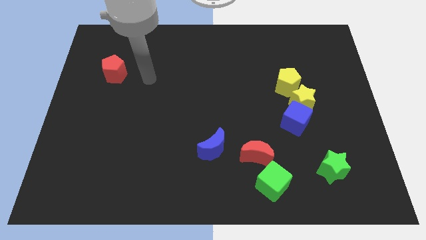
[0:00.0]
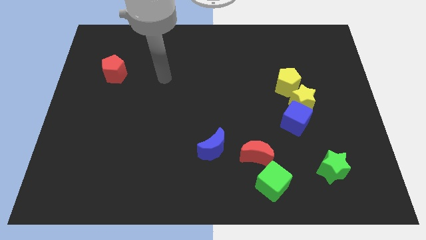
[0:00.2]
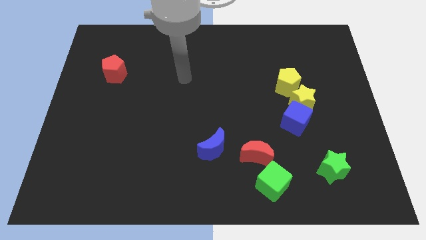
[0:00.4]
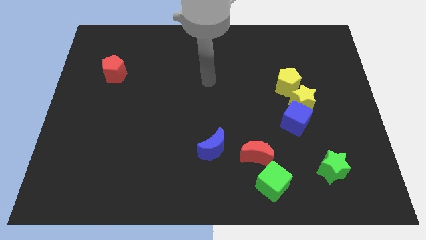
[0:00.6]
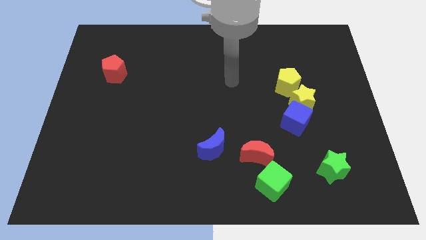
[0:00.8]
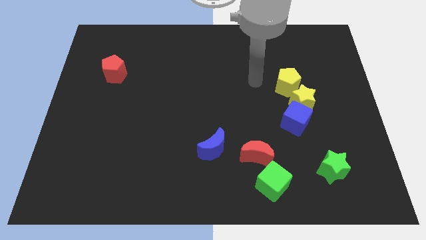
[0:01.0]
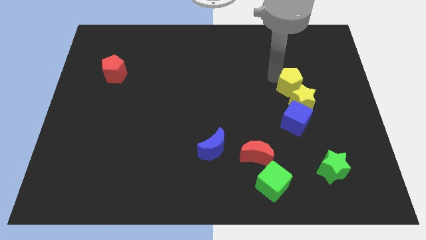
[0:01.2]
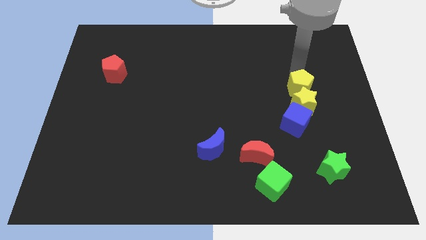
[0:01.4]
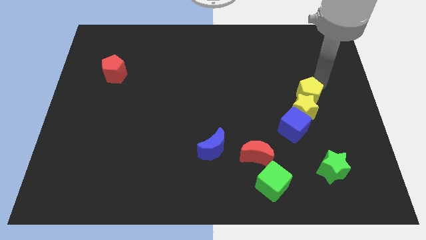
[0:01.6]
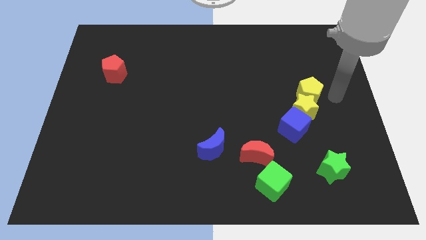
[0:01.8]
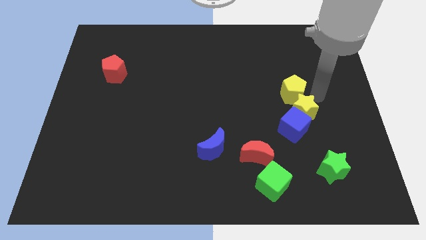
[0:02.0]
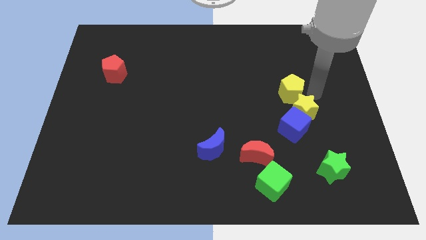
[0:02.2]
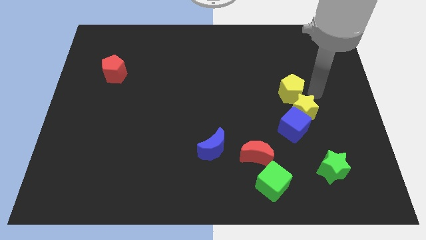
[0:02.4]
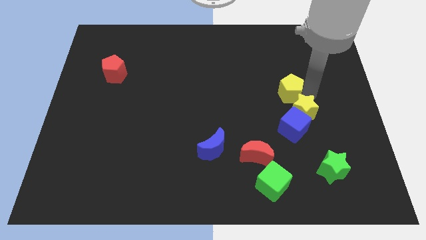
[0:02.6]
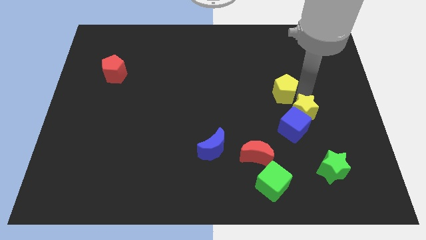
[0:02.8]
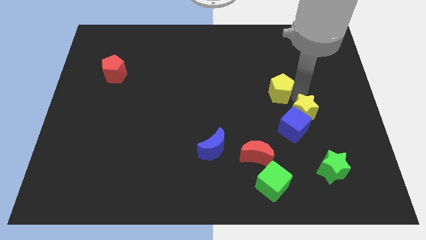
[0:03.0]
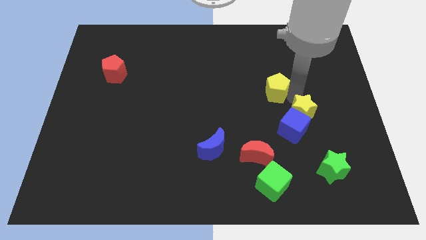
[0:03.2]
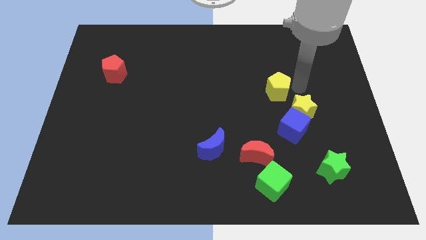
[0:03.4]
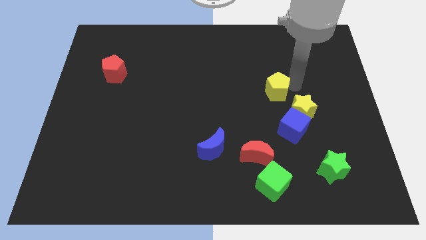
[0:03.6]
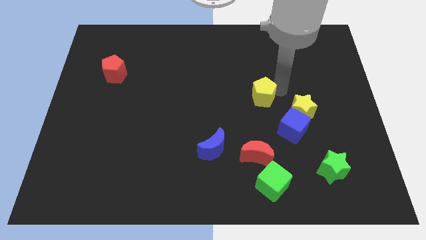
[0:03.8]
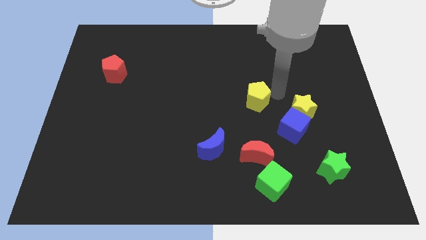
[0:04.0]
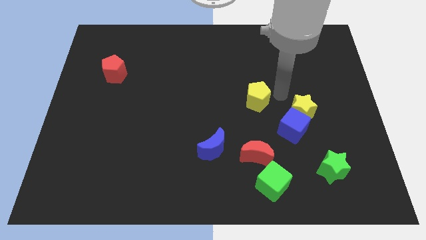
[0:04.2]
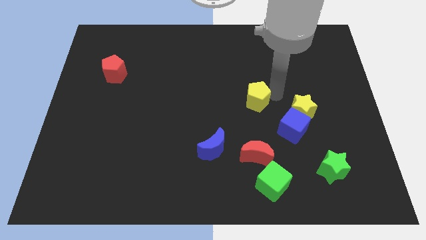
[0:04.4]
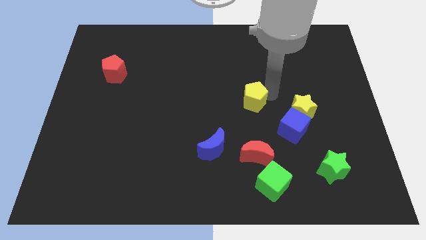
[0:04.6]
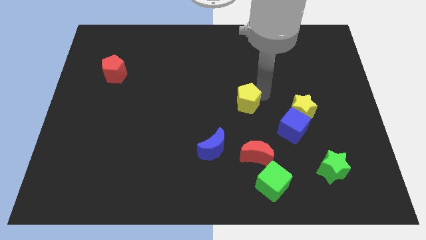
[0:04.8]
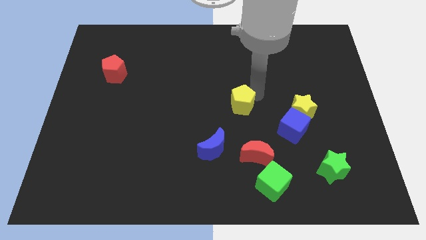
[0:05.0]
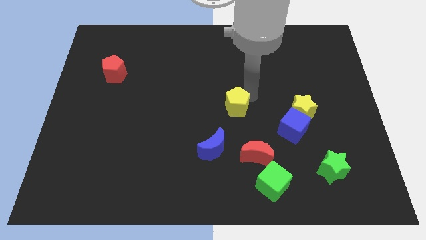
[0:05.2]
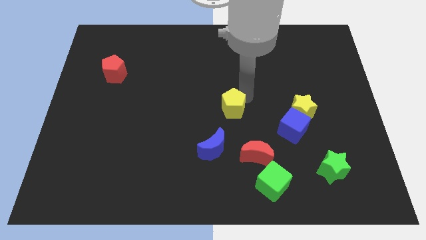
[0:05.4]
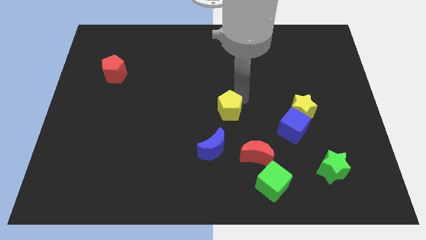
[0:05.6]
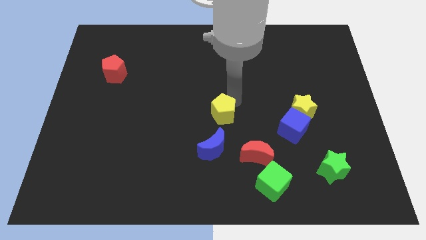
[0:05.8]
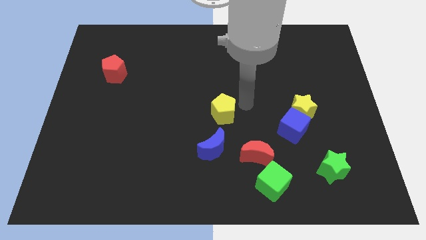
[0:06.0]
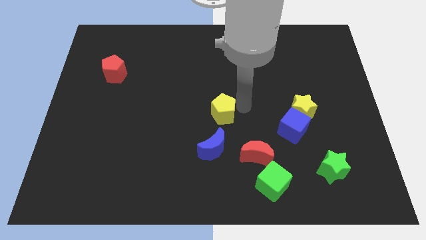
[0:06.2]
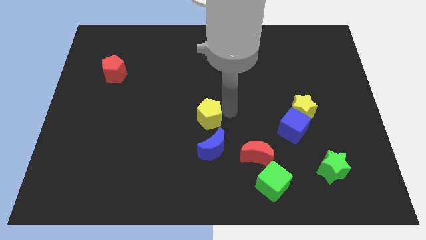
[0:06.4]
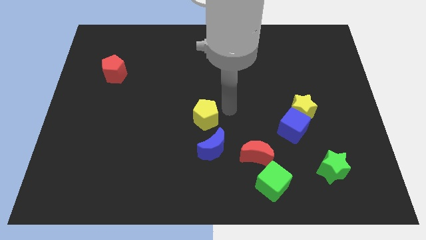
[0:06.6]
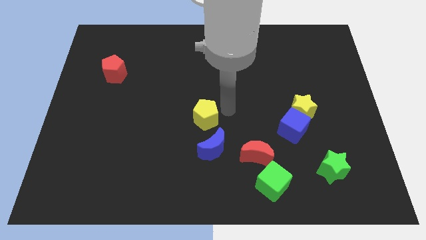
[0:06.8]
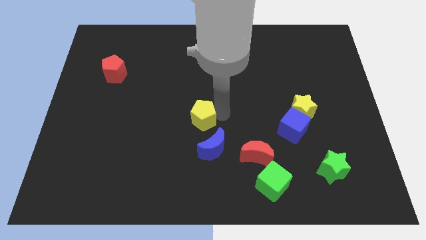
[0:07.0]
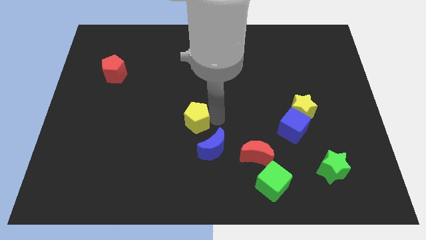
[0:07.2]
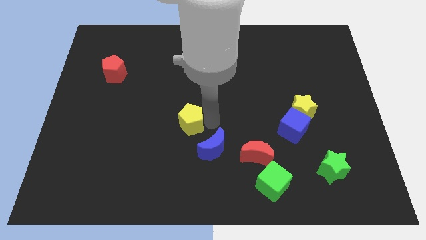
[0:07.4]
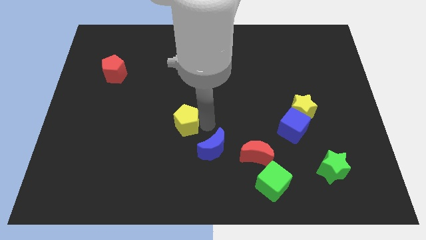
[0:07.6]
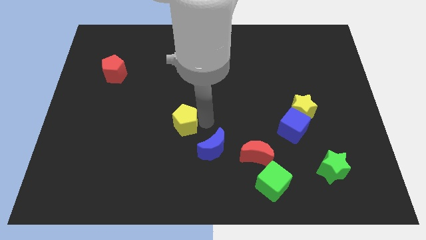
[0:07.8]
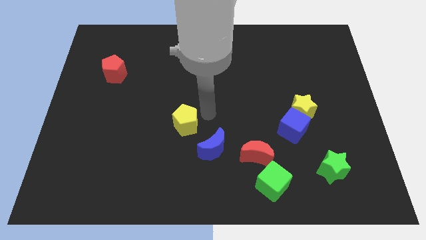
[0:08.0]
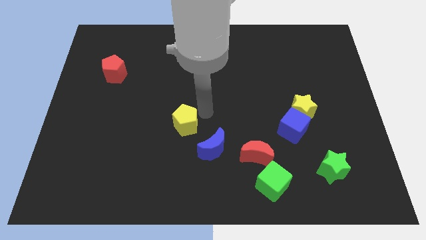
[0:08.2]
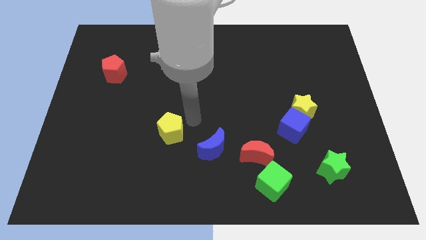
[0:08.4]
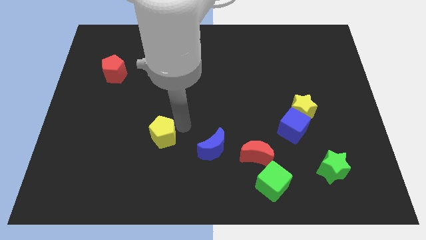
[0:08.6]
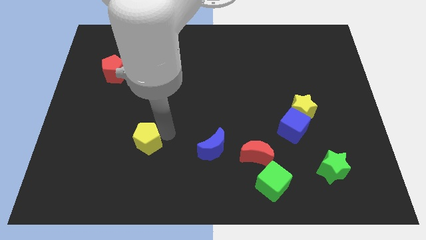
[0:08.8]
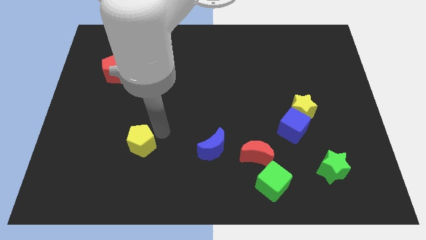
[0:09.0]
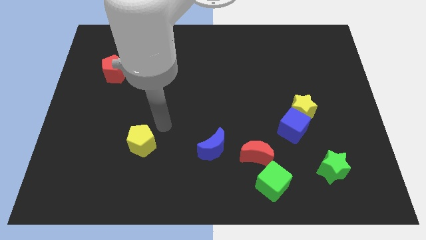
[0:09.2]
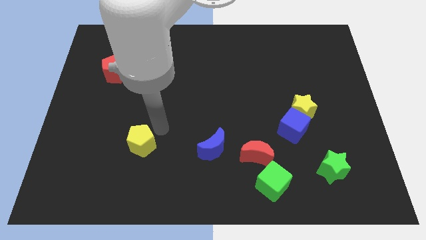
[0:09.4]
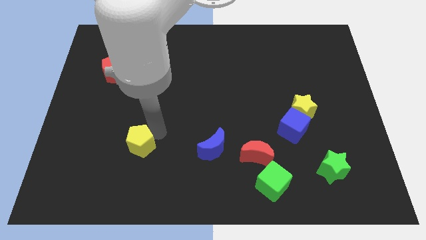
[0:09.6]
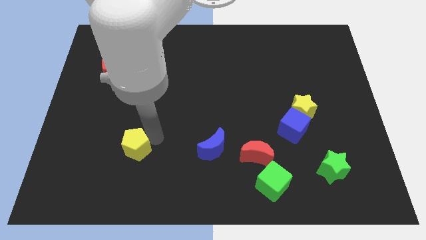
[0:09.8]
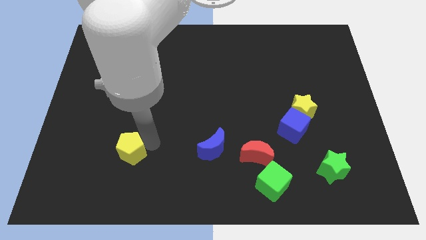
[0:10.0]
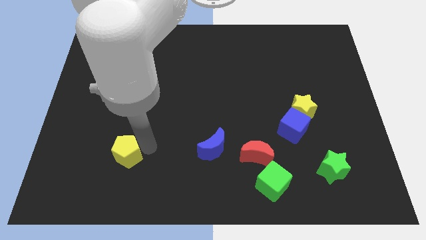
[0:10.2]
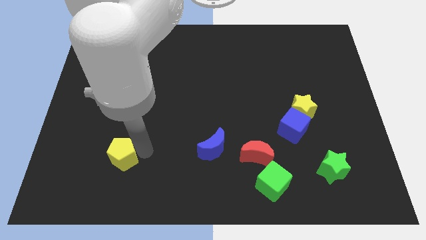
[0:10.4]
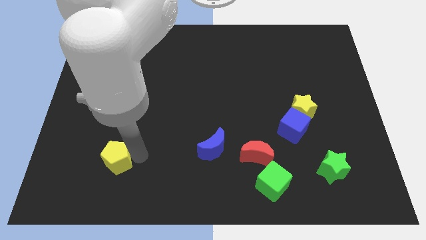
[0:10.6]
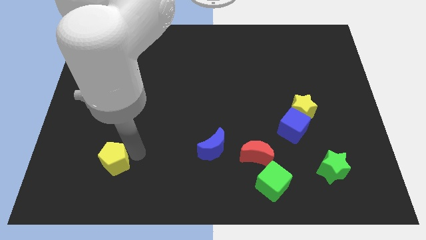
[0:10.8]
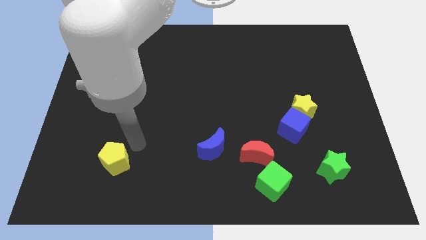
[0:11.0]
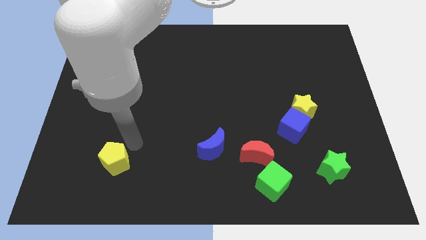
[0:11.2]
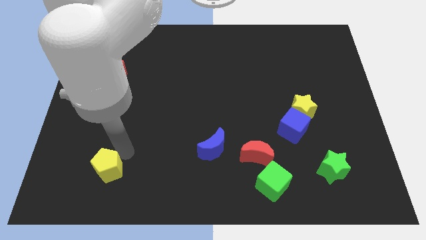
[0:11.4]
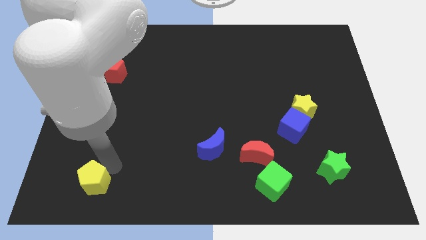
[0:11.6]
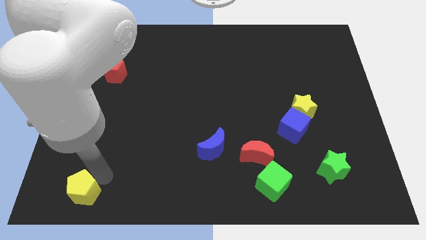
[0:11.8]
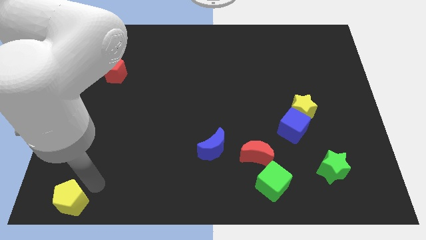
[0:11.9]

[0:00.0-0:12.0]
push the yellow pentagon to the bottom left of the board
